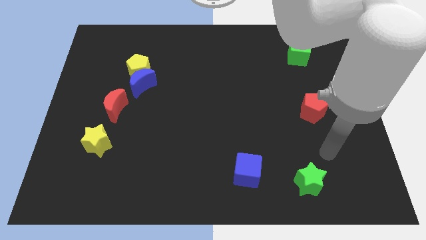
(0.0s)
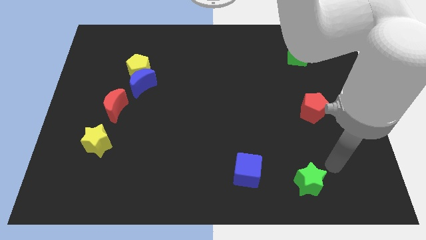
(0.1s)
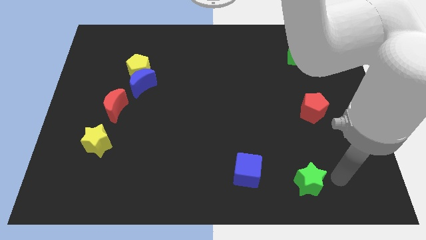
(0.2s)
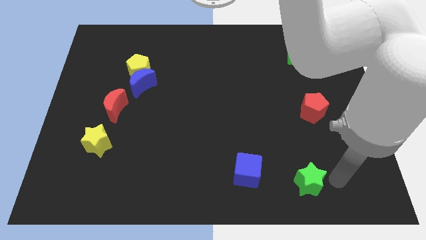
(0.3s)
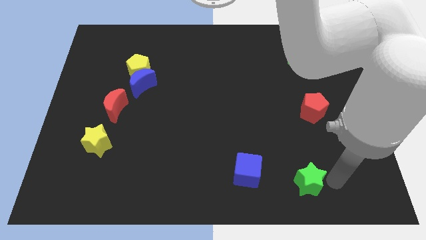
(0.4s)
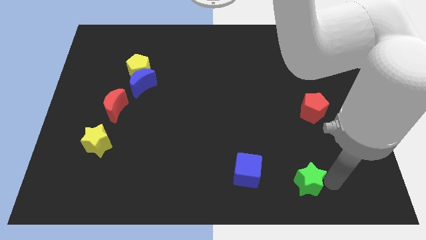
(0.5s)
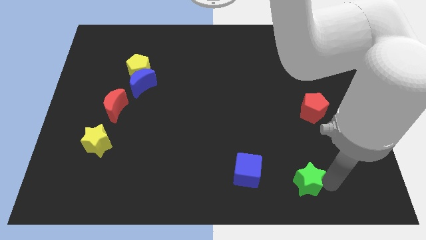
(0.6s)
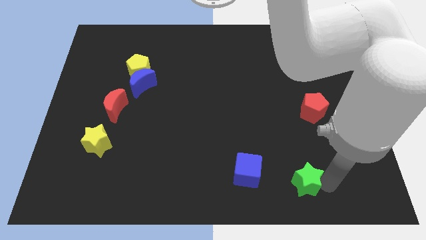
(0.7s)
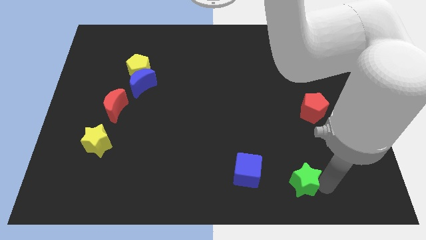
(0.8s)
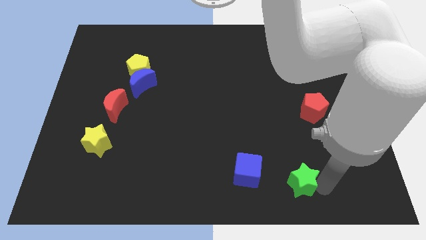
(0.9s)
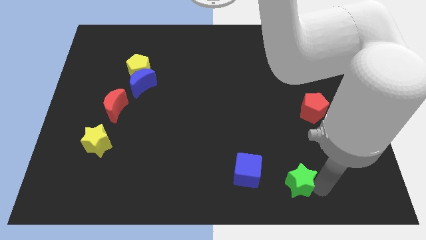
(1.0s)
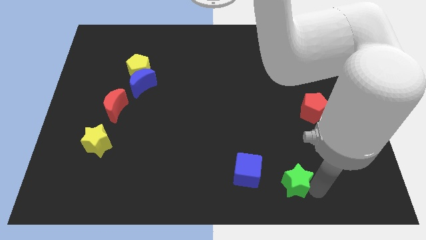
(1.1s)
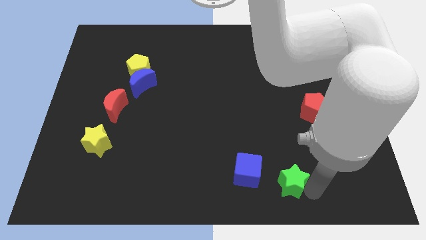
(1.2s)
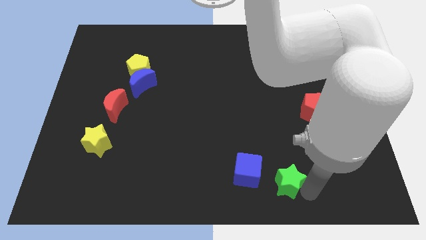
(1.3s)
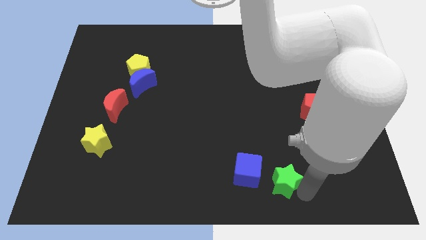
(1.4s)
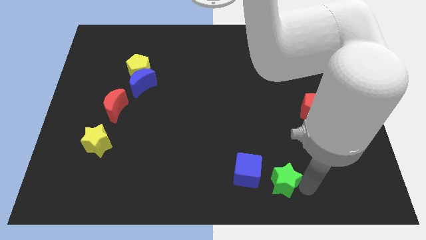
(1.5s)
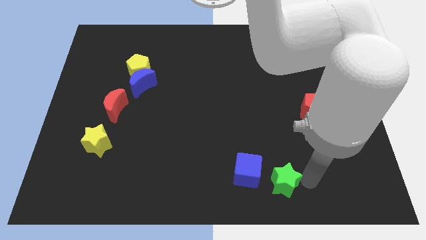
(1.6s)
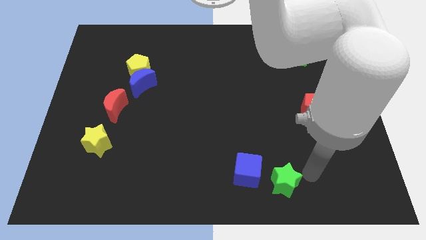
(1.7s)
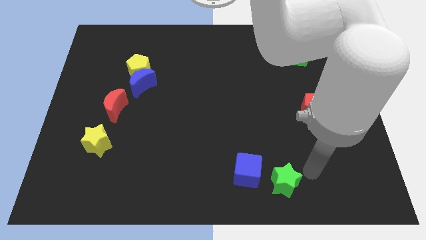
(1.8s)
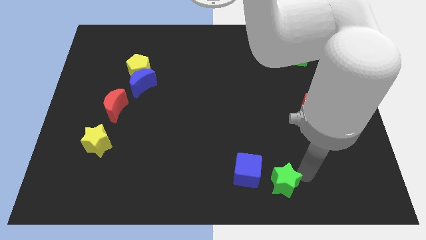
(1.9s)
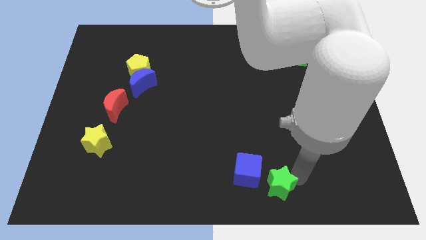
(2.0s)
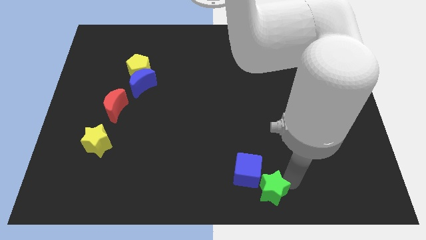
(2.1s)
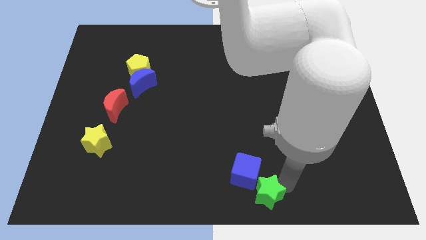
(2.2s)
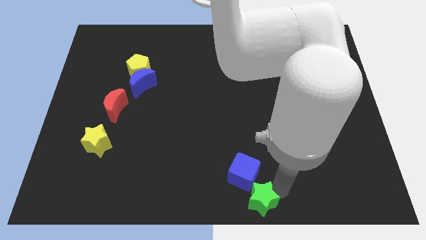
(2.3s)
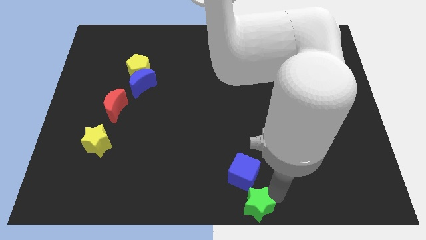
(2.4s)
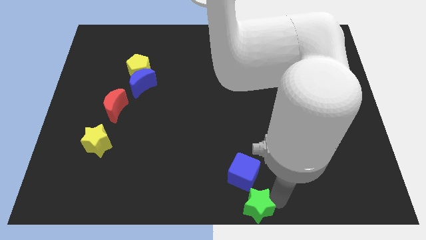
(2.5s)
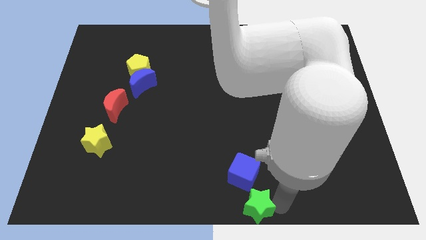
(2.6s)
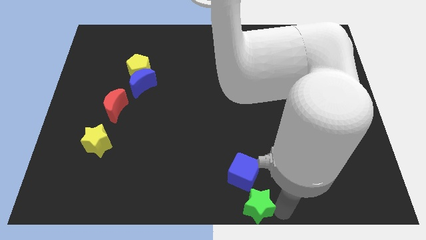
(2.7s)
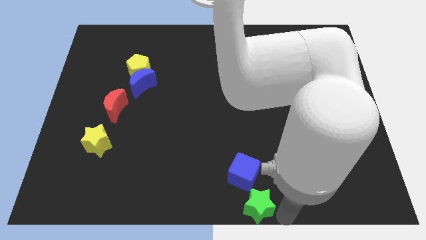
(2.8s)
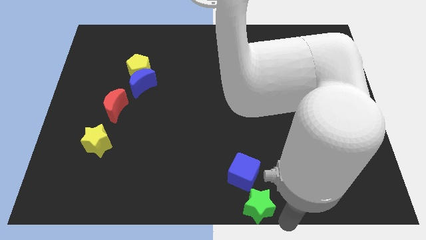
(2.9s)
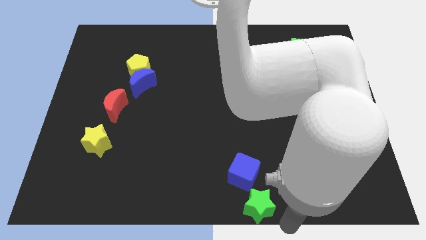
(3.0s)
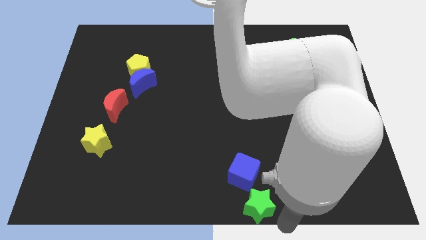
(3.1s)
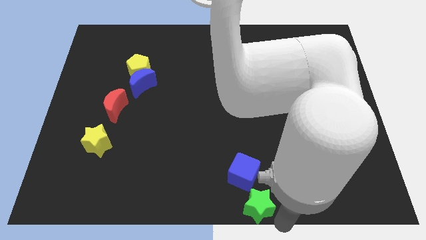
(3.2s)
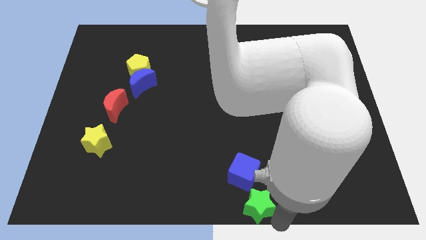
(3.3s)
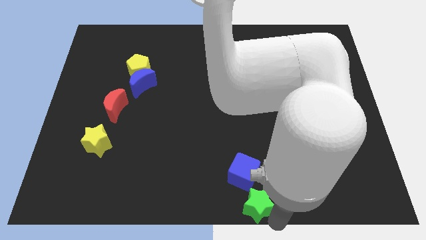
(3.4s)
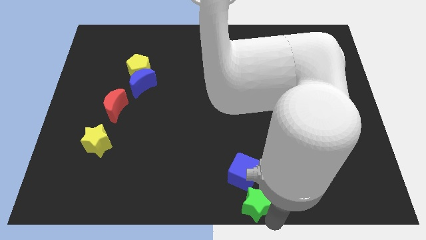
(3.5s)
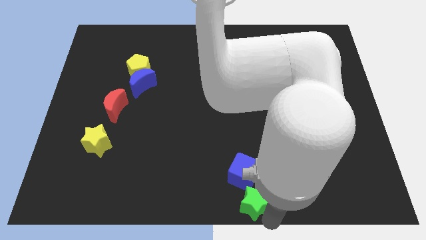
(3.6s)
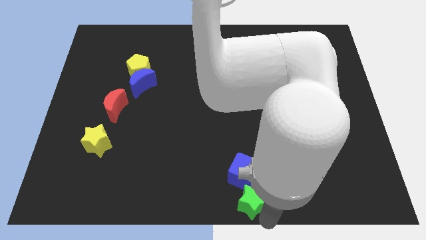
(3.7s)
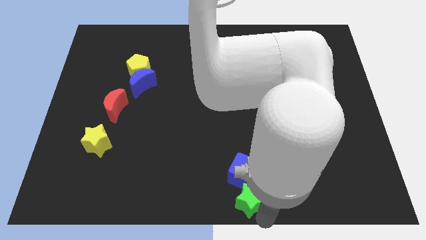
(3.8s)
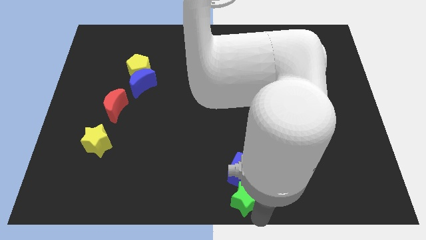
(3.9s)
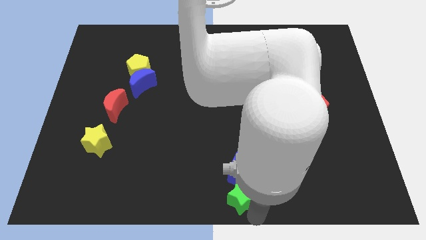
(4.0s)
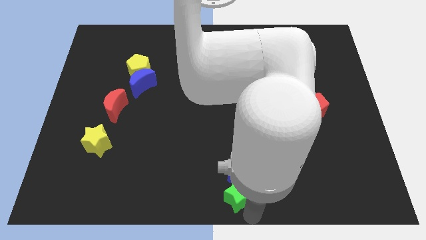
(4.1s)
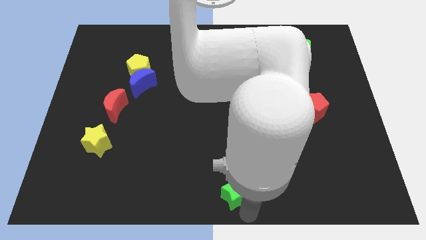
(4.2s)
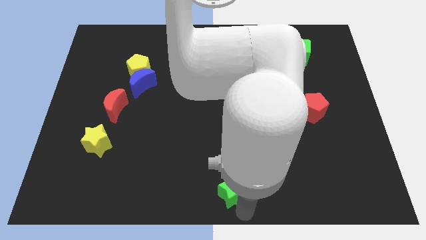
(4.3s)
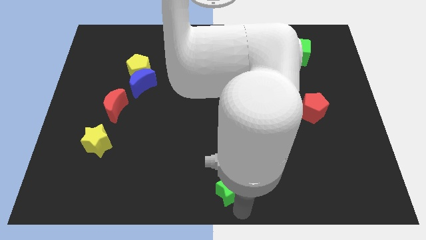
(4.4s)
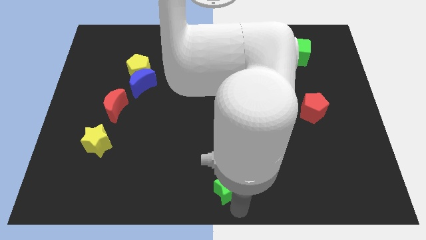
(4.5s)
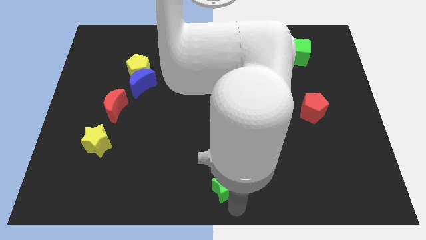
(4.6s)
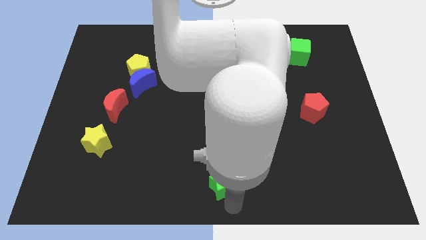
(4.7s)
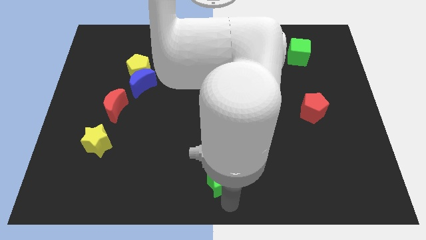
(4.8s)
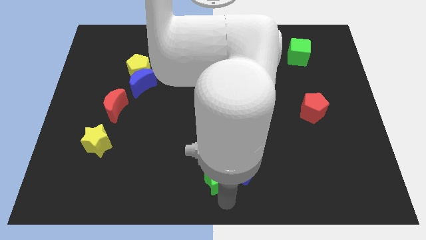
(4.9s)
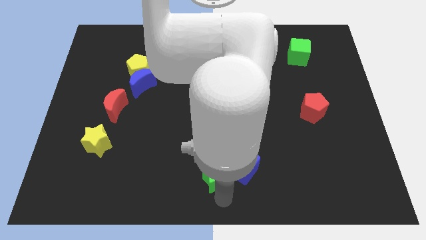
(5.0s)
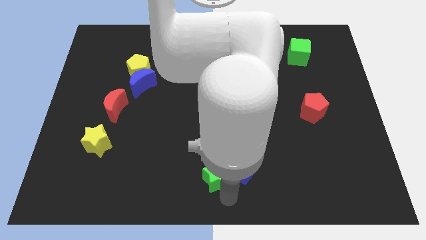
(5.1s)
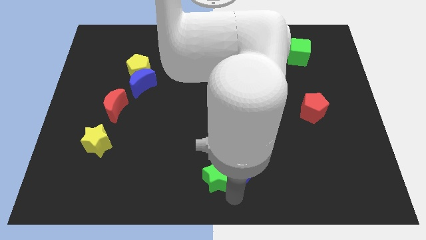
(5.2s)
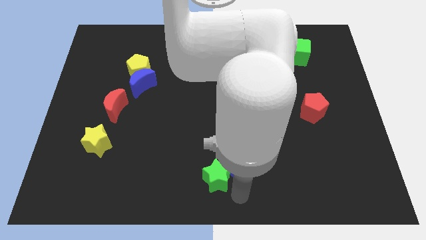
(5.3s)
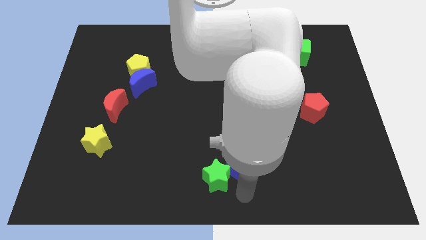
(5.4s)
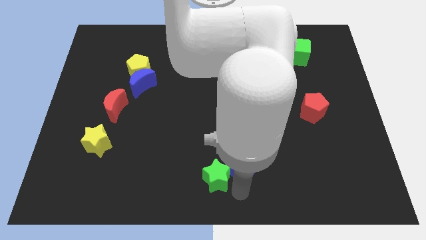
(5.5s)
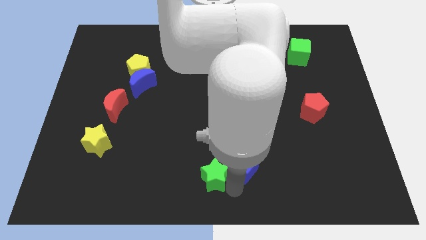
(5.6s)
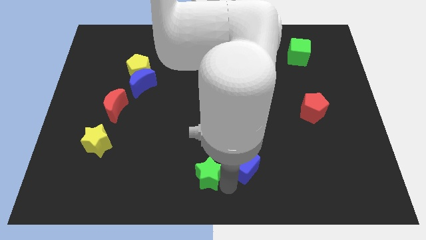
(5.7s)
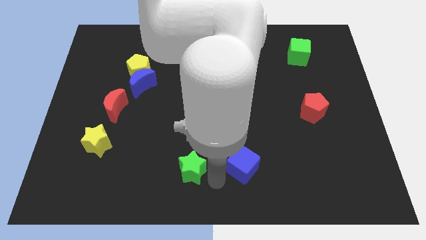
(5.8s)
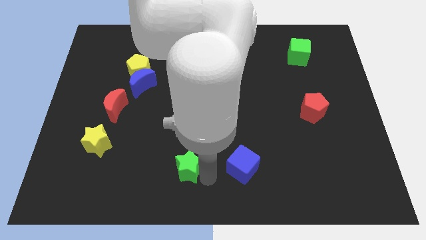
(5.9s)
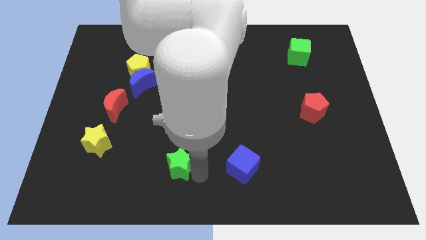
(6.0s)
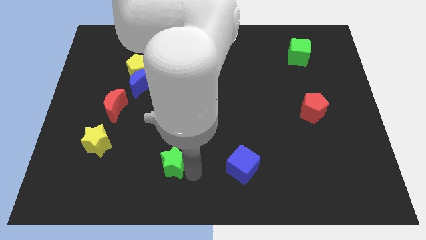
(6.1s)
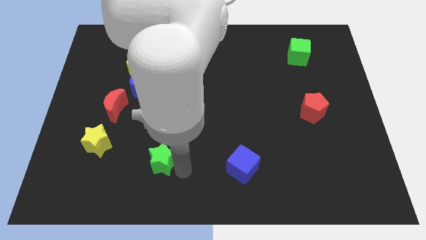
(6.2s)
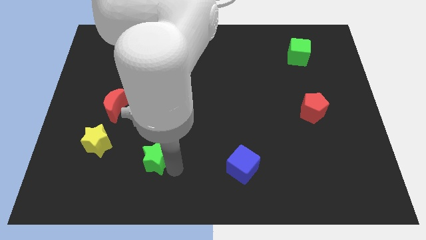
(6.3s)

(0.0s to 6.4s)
put the green star right of the yellow star

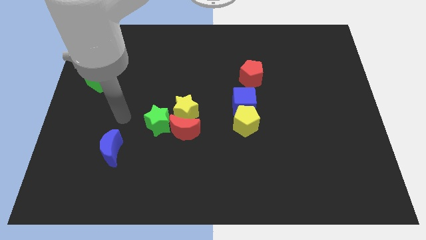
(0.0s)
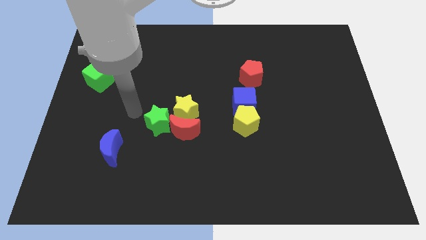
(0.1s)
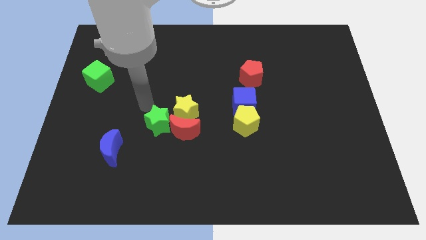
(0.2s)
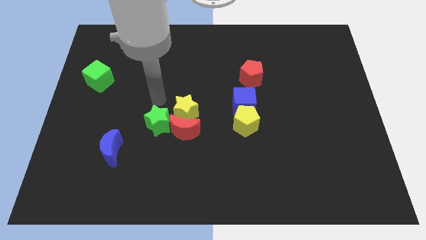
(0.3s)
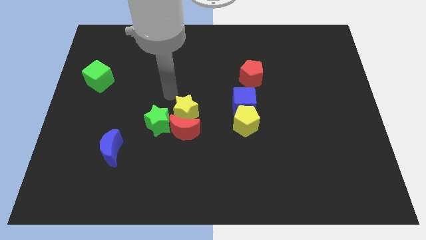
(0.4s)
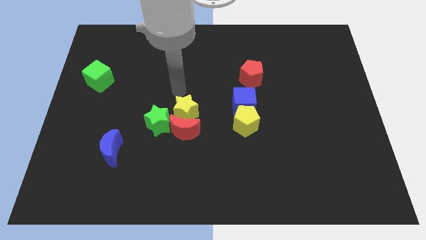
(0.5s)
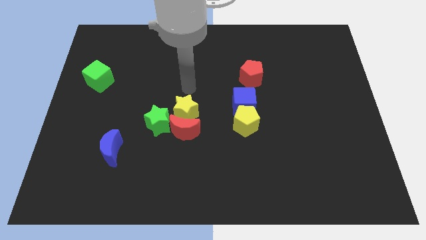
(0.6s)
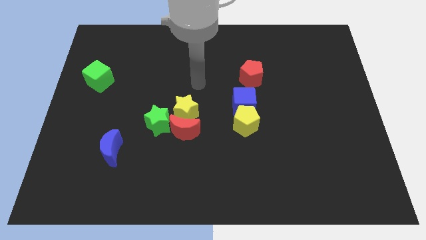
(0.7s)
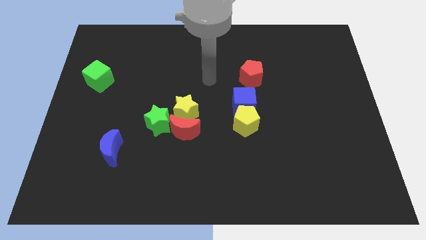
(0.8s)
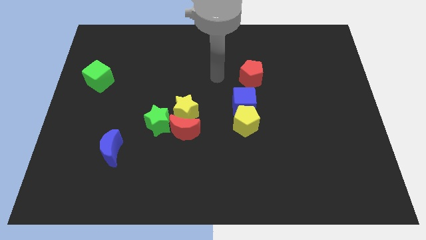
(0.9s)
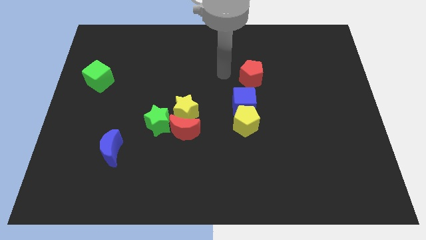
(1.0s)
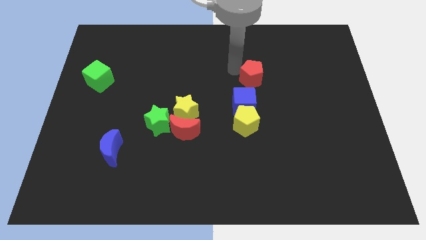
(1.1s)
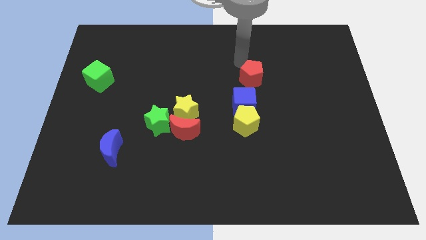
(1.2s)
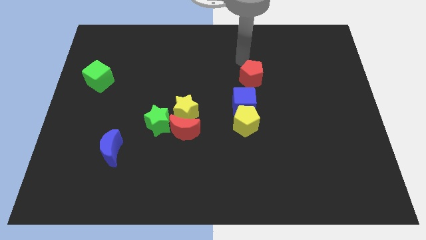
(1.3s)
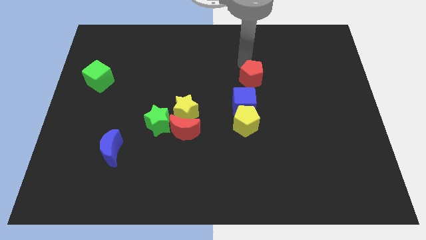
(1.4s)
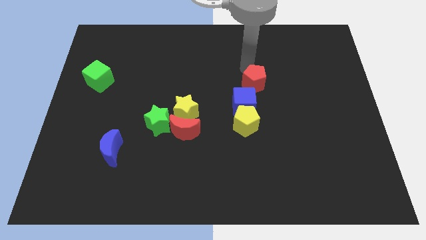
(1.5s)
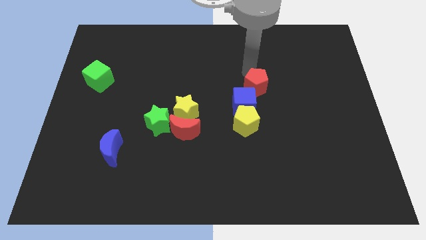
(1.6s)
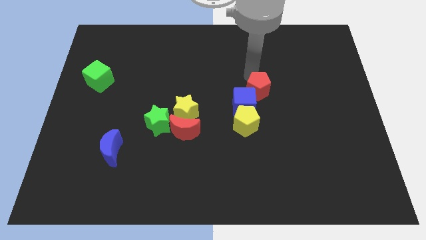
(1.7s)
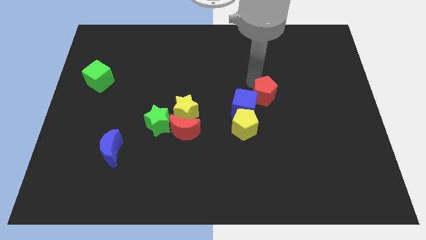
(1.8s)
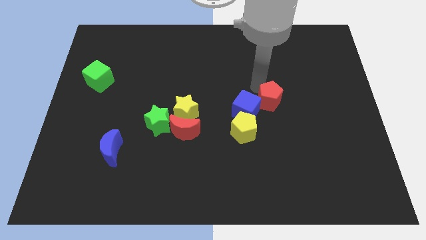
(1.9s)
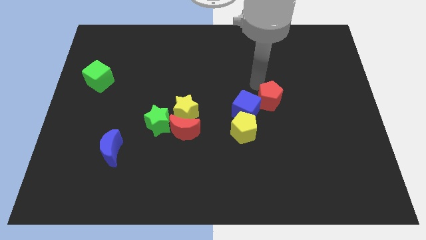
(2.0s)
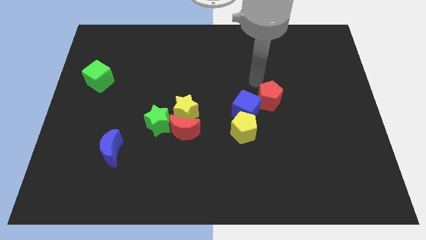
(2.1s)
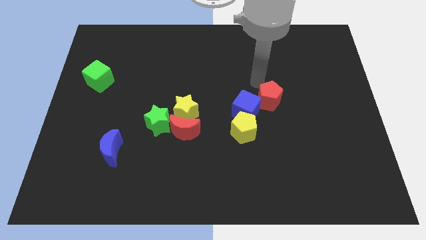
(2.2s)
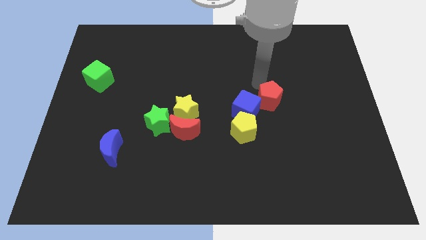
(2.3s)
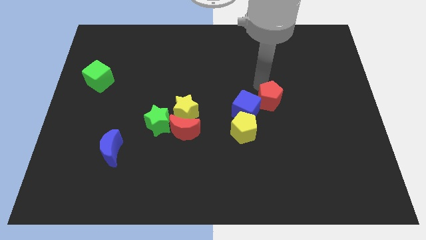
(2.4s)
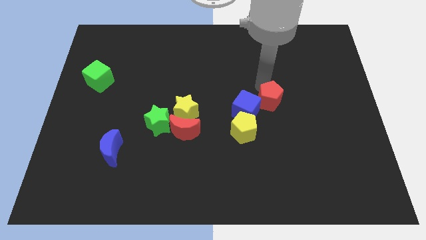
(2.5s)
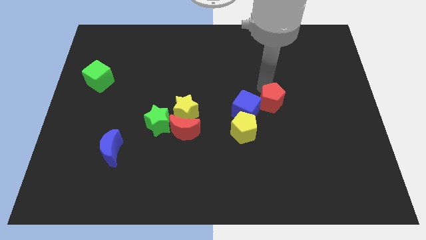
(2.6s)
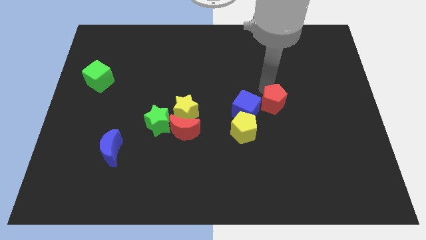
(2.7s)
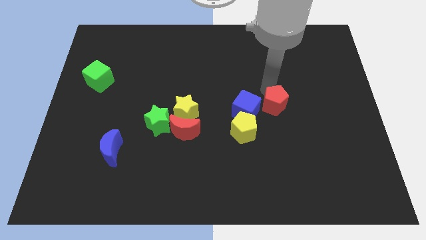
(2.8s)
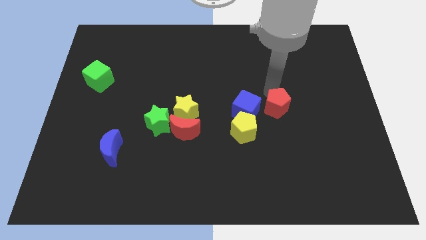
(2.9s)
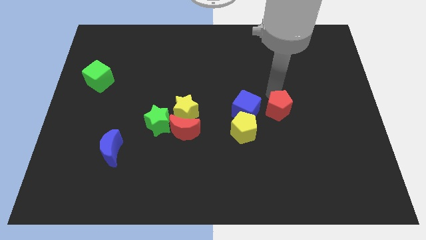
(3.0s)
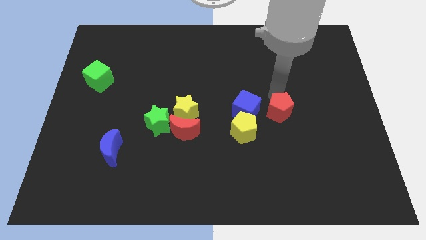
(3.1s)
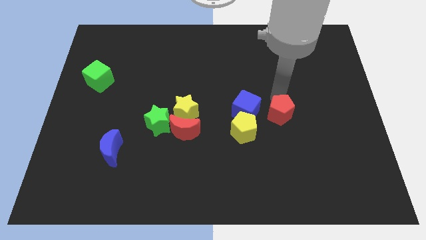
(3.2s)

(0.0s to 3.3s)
move the red pentagon to the right side of the yellow pentagon
